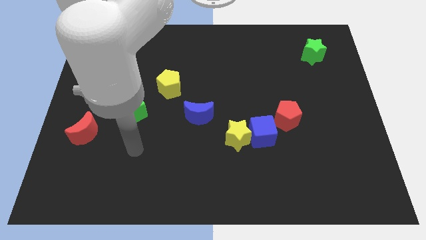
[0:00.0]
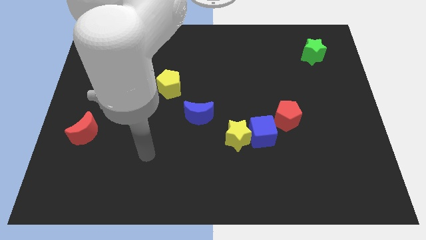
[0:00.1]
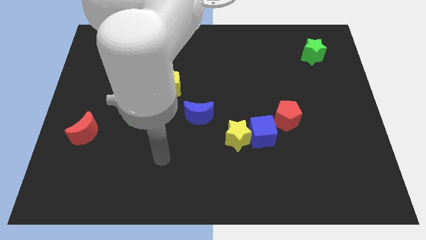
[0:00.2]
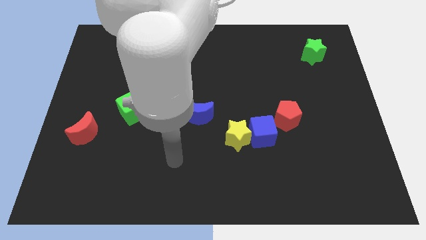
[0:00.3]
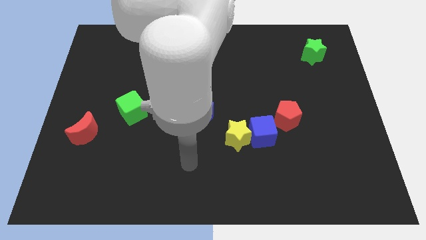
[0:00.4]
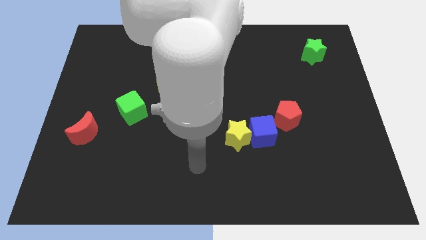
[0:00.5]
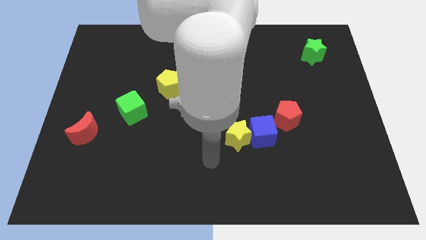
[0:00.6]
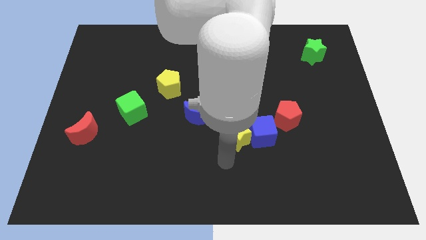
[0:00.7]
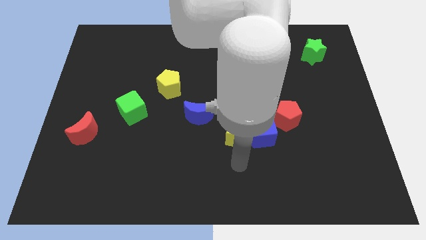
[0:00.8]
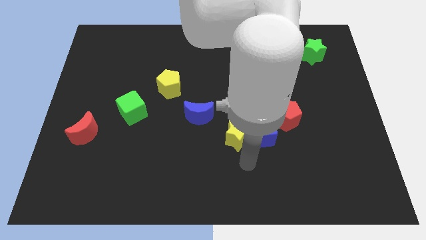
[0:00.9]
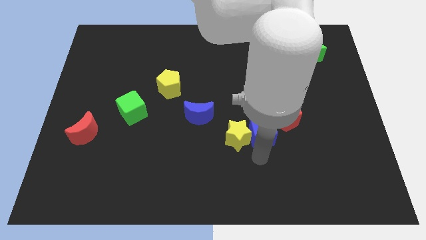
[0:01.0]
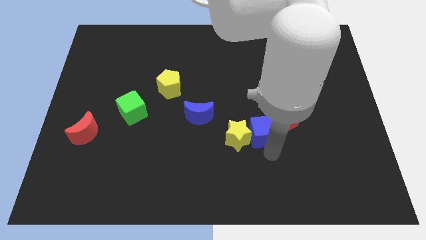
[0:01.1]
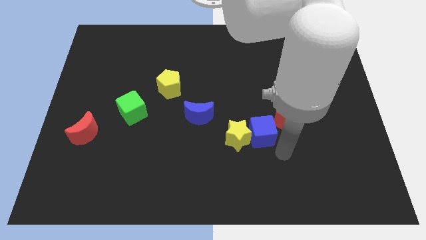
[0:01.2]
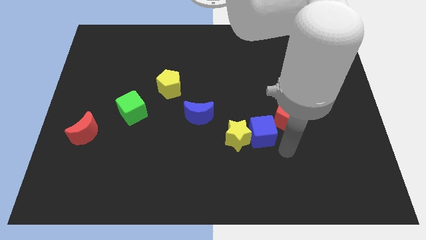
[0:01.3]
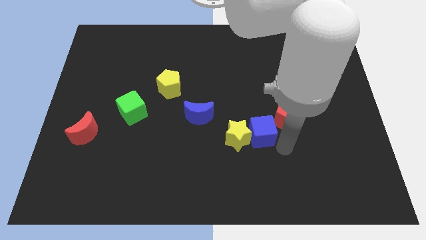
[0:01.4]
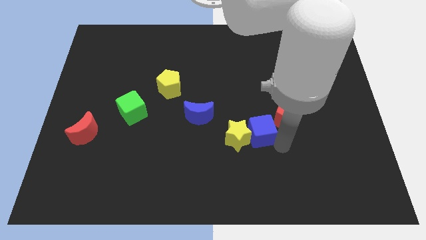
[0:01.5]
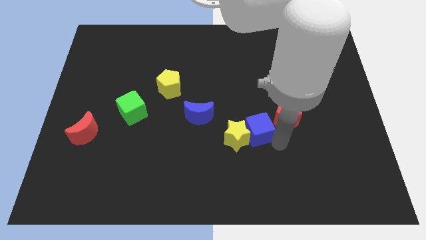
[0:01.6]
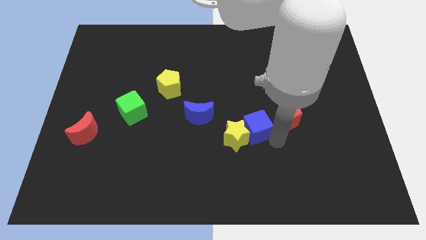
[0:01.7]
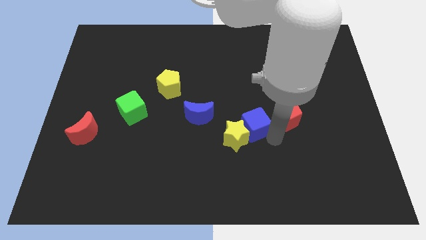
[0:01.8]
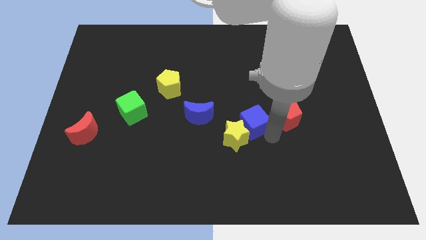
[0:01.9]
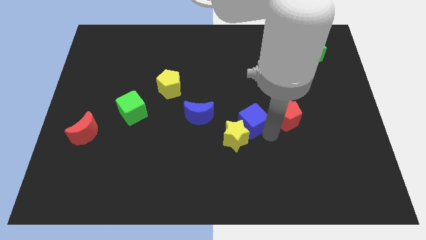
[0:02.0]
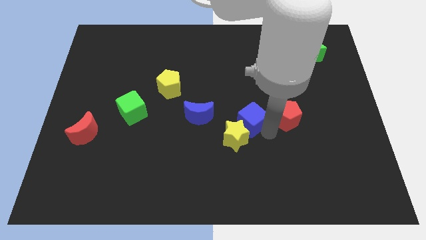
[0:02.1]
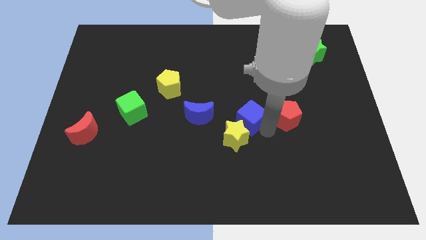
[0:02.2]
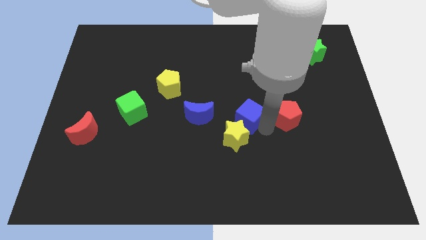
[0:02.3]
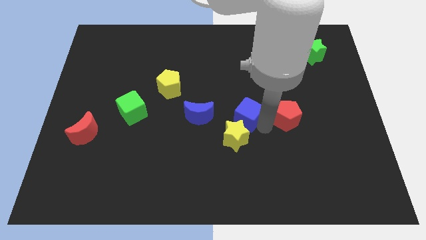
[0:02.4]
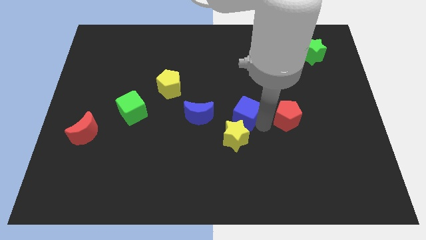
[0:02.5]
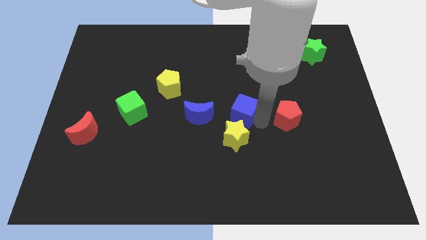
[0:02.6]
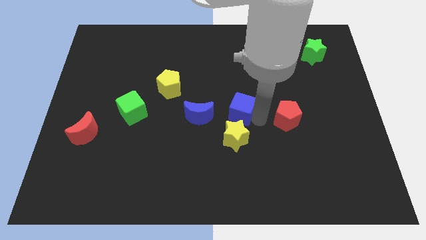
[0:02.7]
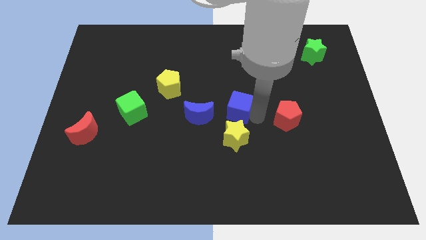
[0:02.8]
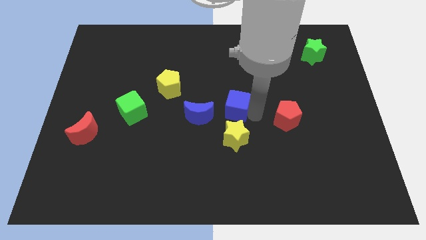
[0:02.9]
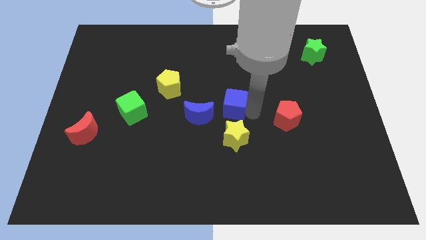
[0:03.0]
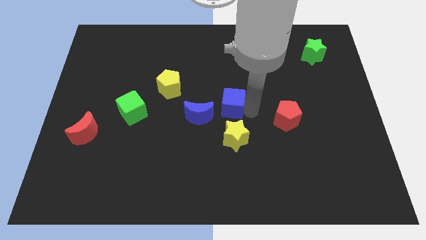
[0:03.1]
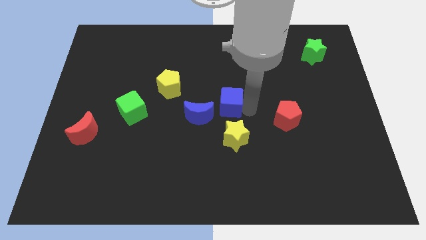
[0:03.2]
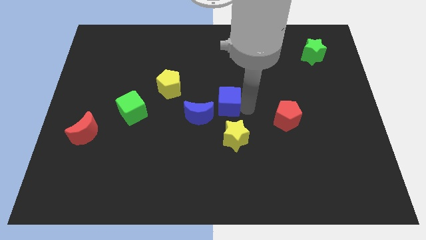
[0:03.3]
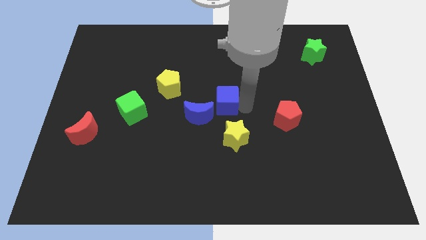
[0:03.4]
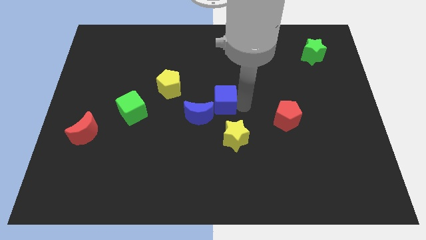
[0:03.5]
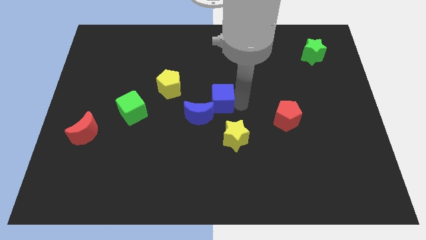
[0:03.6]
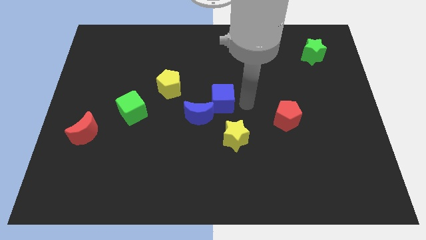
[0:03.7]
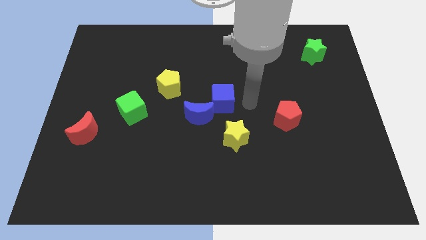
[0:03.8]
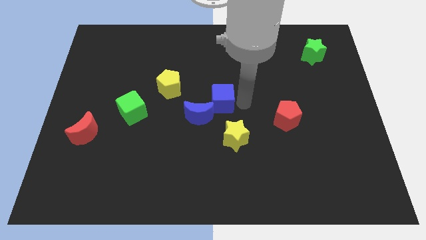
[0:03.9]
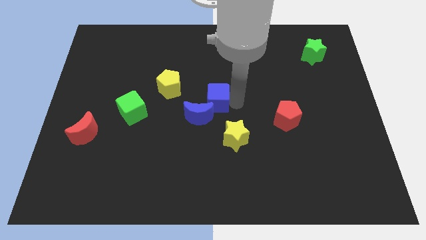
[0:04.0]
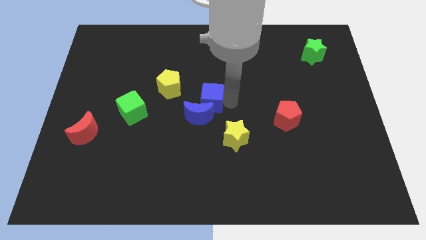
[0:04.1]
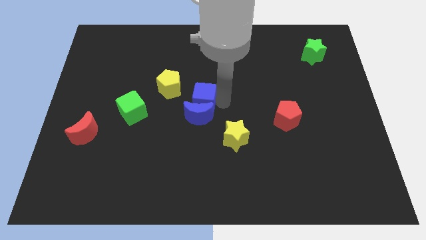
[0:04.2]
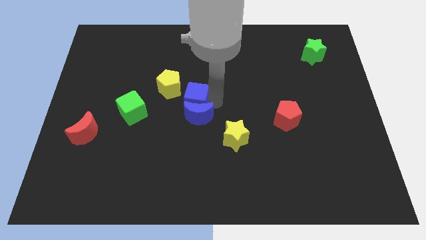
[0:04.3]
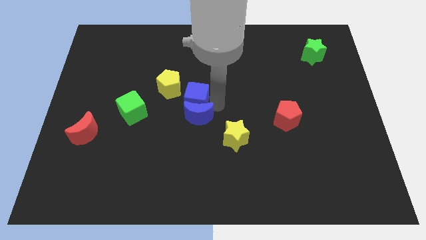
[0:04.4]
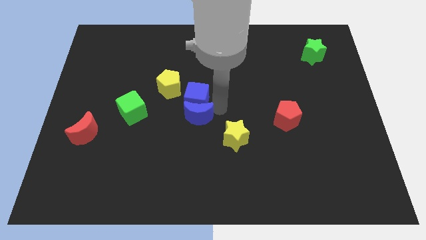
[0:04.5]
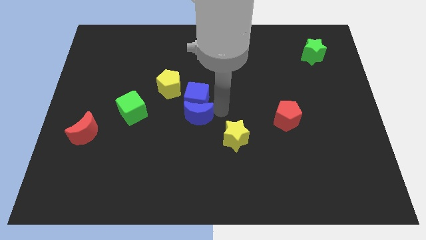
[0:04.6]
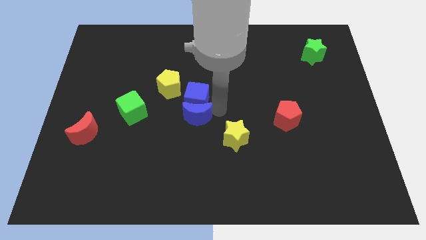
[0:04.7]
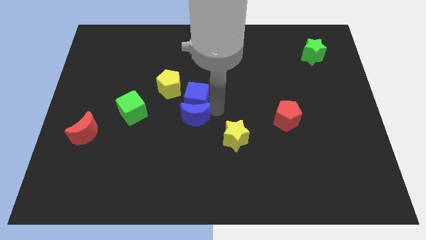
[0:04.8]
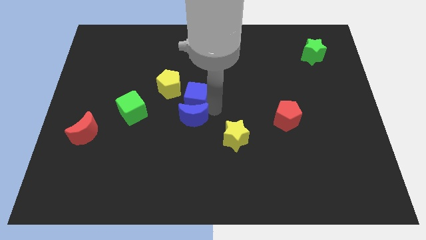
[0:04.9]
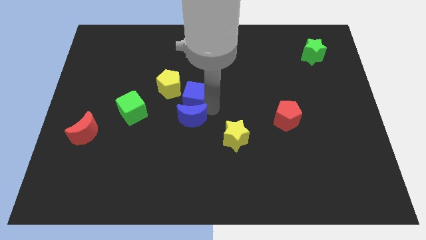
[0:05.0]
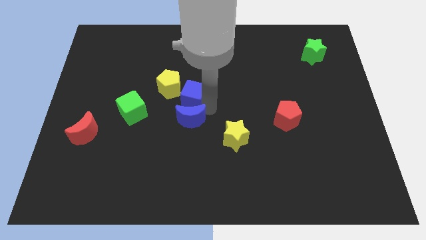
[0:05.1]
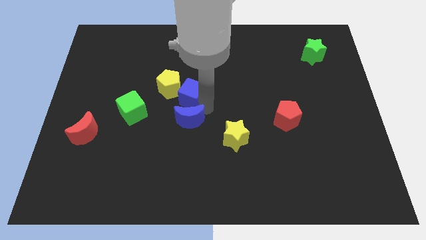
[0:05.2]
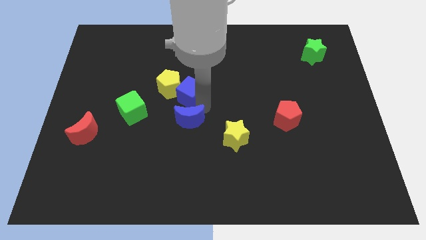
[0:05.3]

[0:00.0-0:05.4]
push the blue cube close to the yellow pentagon

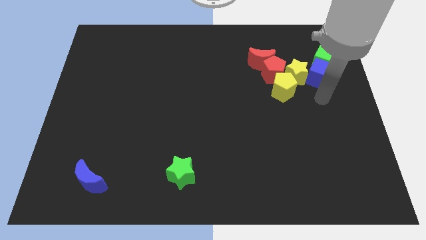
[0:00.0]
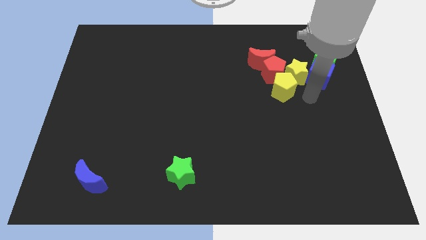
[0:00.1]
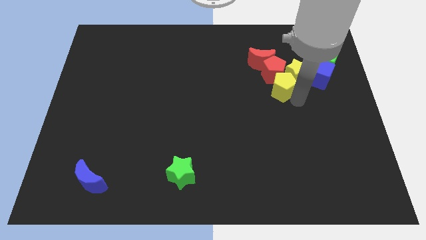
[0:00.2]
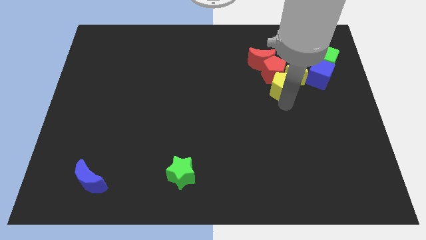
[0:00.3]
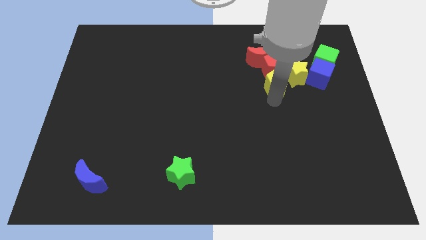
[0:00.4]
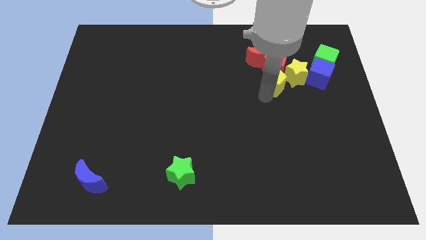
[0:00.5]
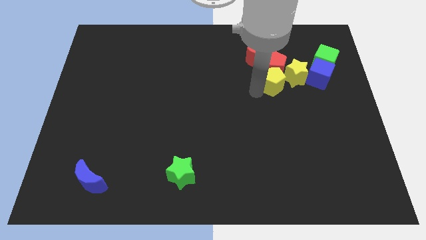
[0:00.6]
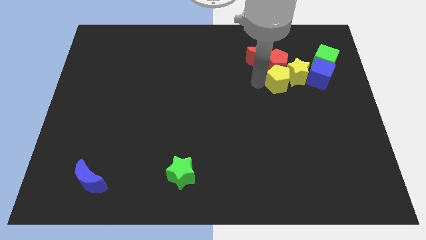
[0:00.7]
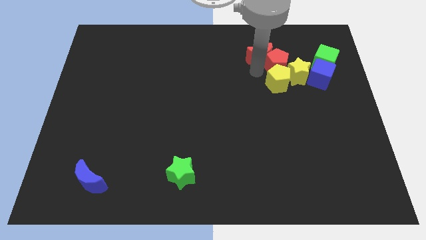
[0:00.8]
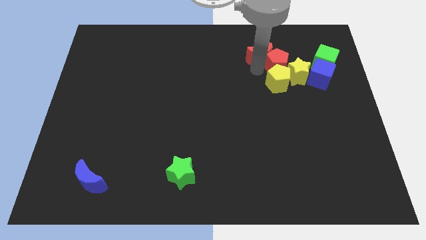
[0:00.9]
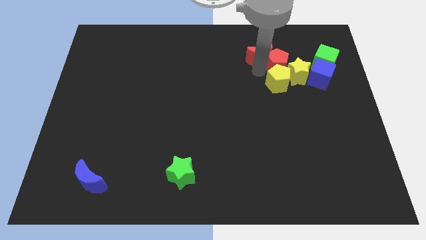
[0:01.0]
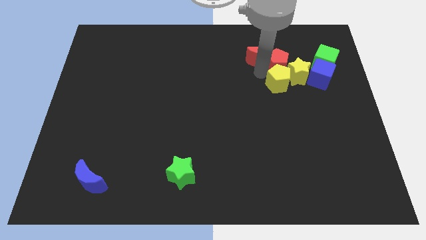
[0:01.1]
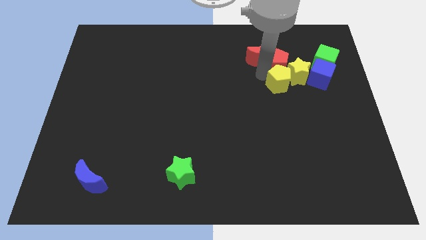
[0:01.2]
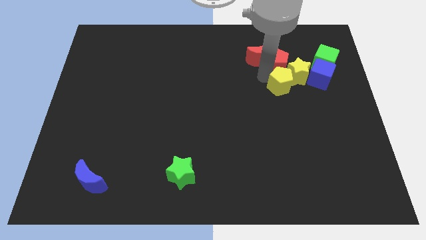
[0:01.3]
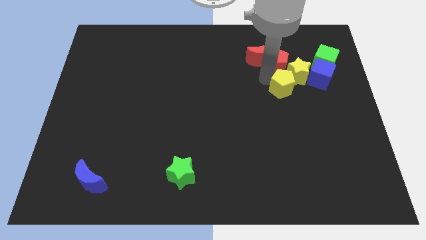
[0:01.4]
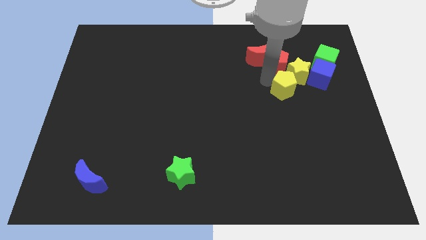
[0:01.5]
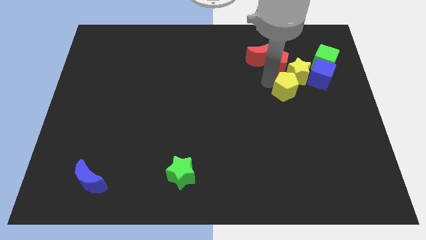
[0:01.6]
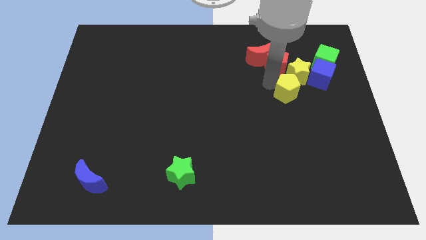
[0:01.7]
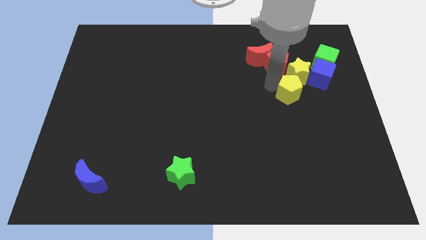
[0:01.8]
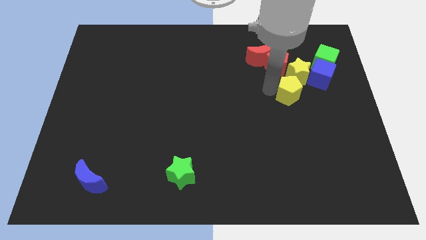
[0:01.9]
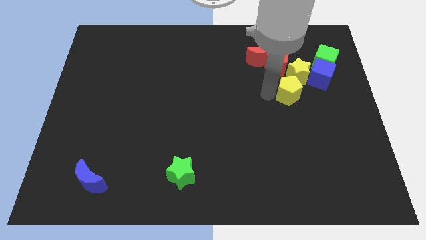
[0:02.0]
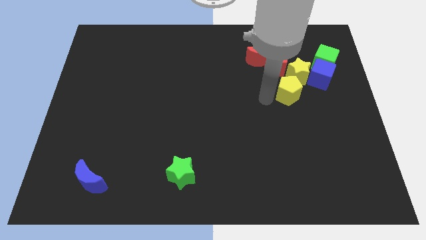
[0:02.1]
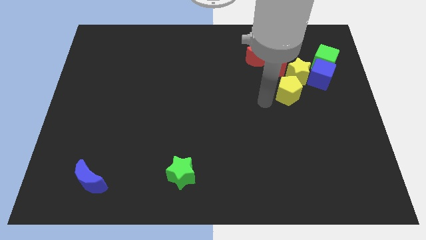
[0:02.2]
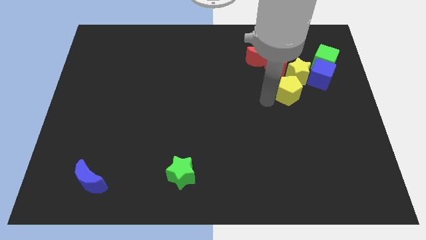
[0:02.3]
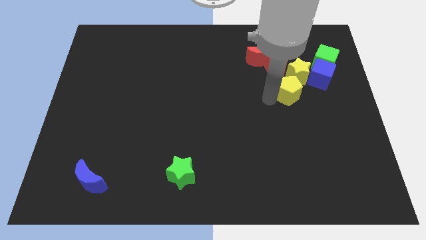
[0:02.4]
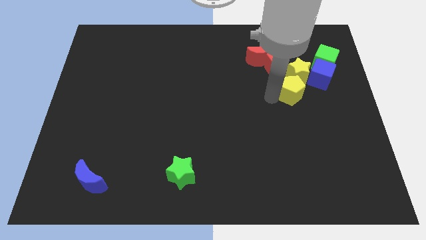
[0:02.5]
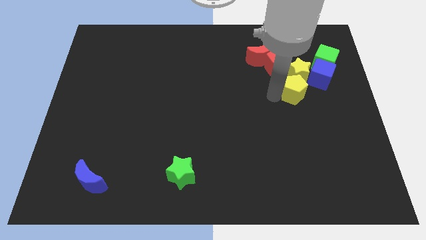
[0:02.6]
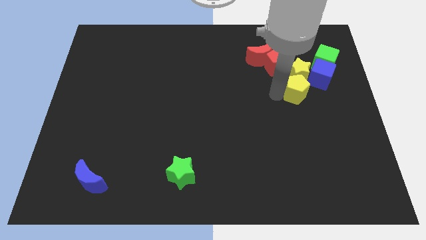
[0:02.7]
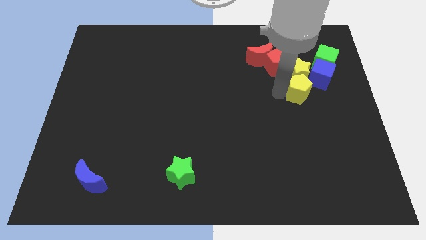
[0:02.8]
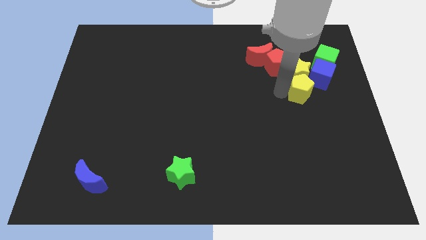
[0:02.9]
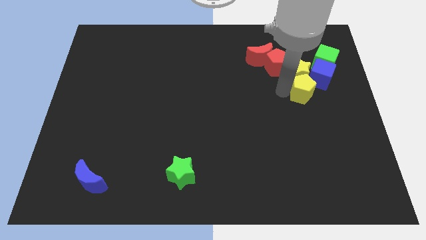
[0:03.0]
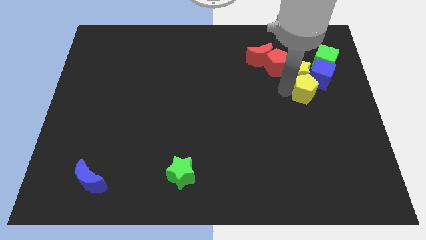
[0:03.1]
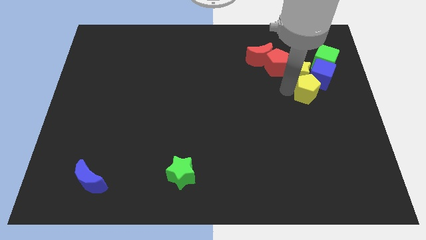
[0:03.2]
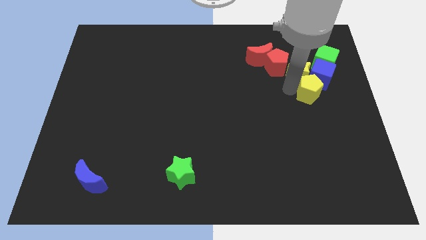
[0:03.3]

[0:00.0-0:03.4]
put the yellow pentagon close to the blue cube
